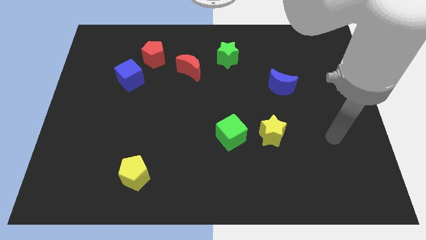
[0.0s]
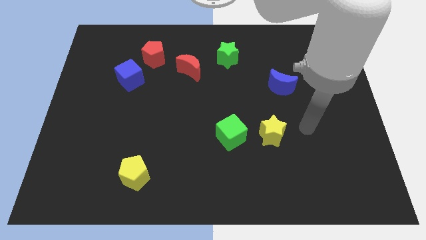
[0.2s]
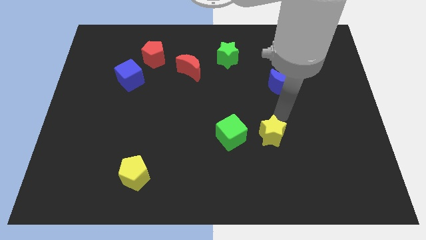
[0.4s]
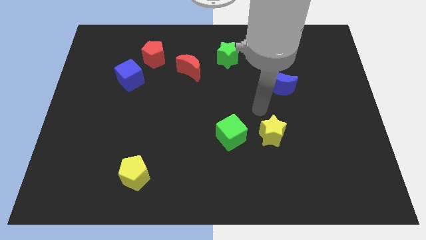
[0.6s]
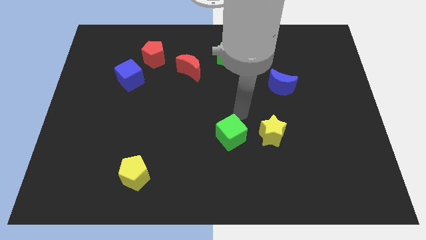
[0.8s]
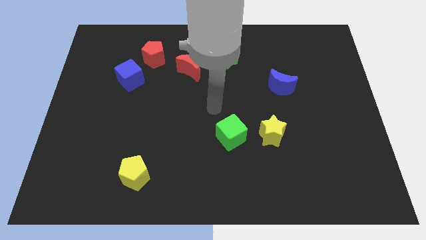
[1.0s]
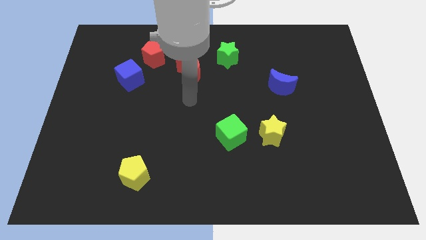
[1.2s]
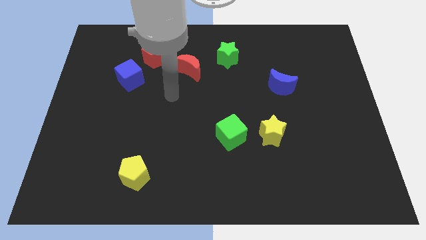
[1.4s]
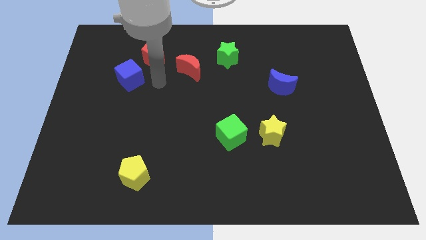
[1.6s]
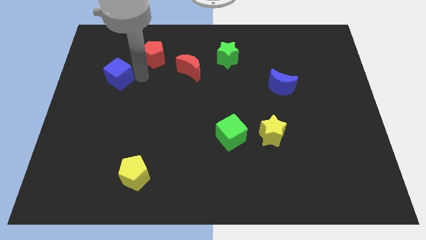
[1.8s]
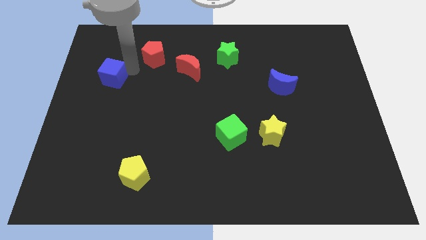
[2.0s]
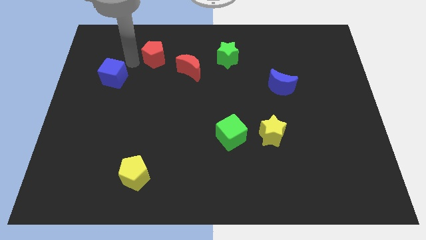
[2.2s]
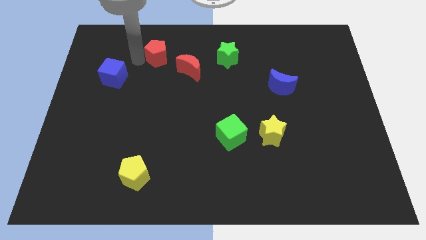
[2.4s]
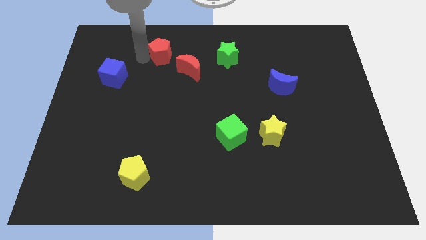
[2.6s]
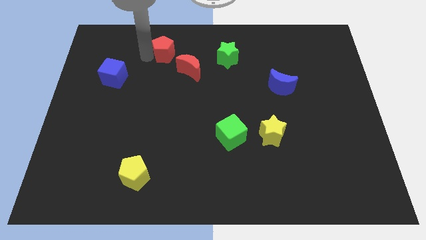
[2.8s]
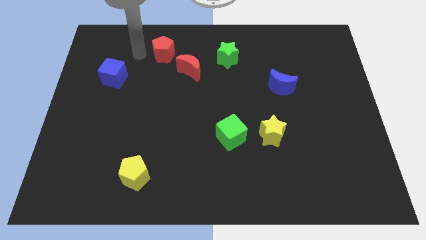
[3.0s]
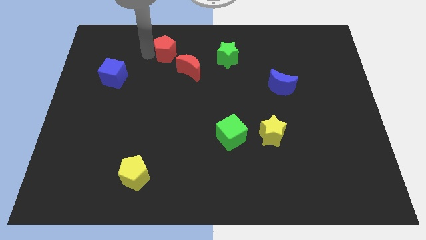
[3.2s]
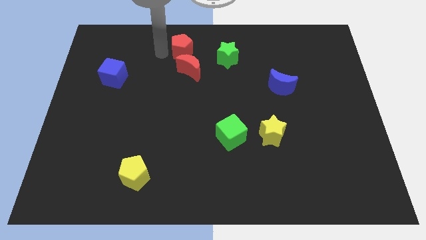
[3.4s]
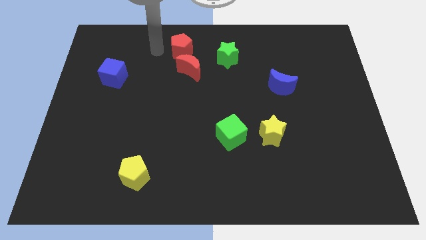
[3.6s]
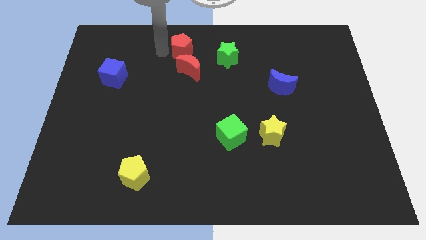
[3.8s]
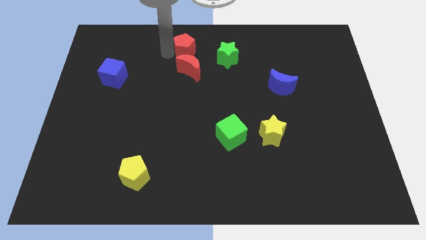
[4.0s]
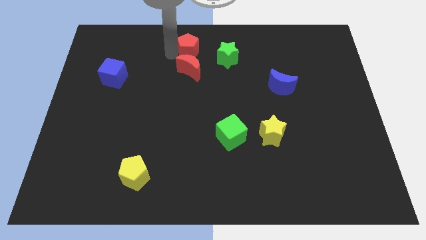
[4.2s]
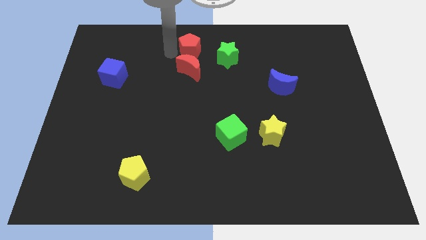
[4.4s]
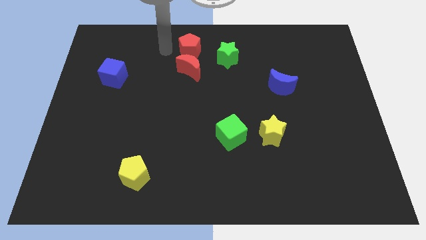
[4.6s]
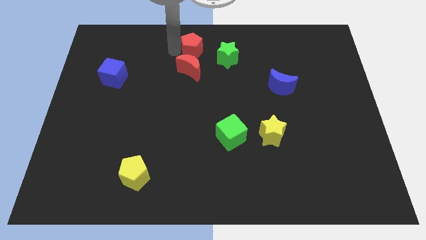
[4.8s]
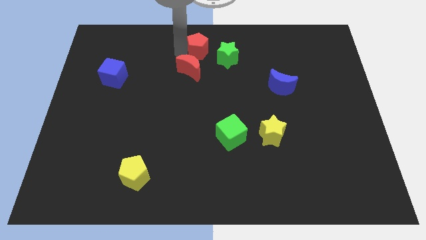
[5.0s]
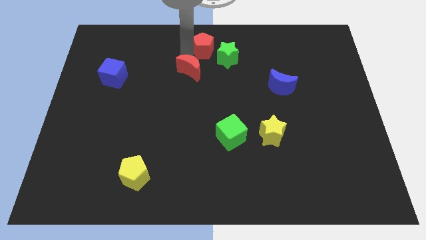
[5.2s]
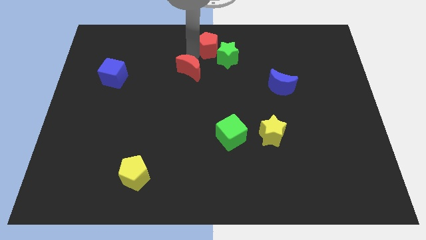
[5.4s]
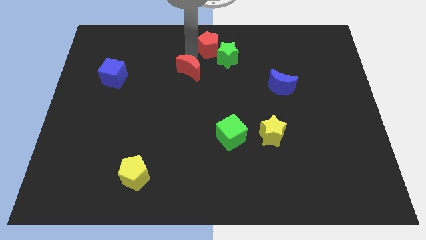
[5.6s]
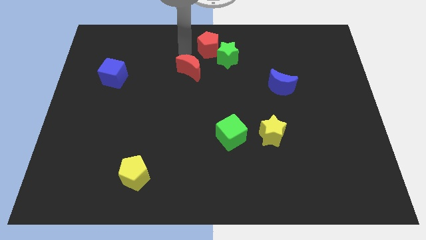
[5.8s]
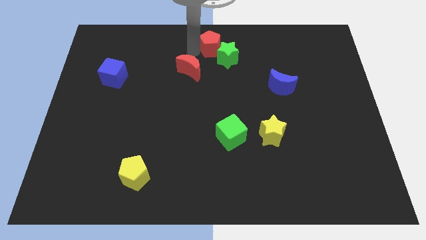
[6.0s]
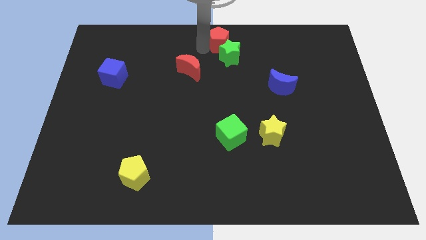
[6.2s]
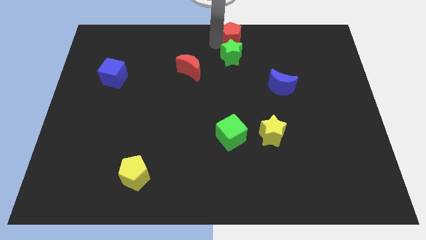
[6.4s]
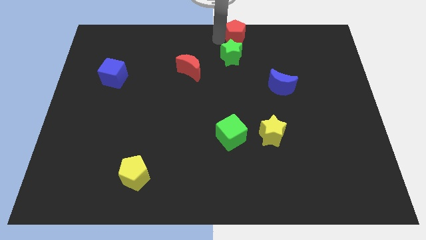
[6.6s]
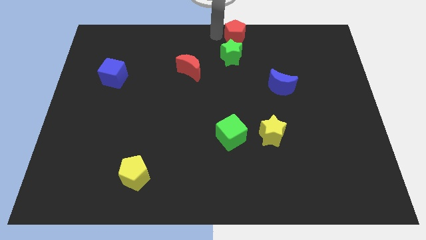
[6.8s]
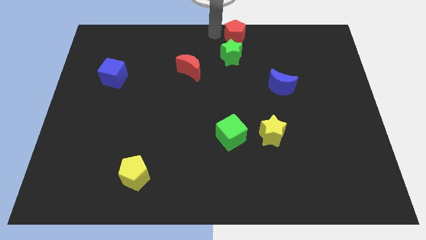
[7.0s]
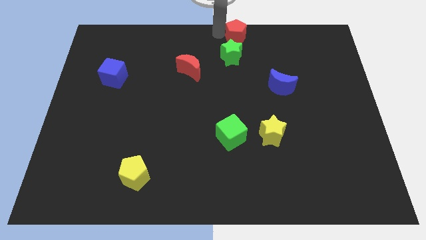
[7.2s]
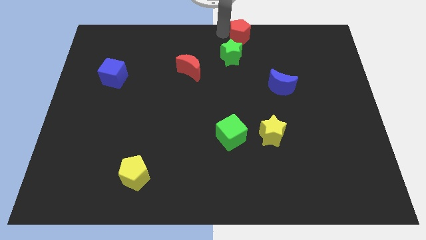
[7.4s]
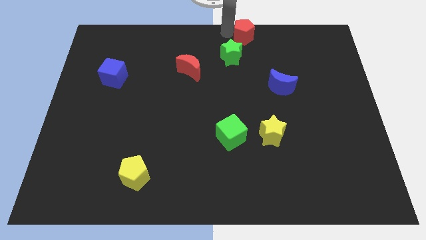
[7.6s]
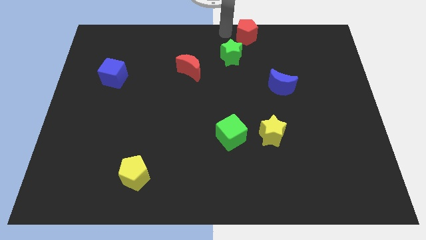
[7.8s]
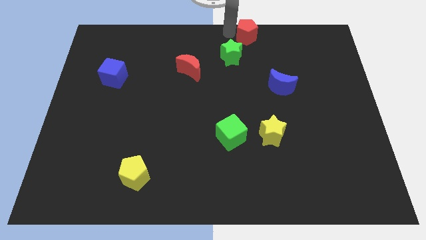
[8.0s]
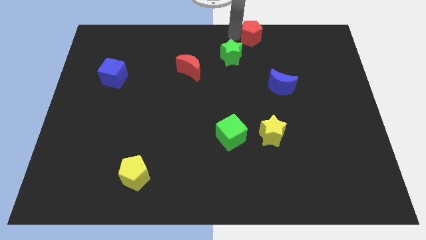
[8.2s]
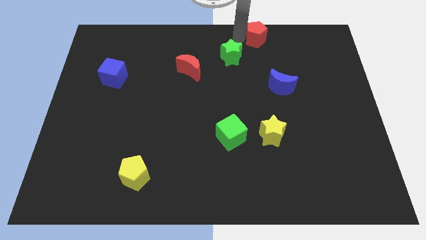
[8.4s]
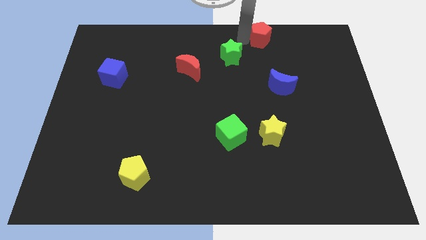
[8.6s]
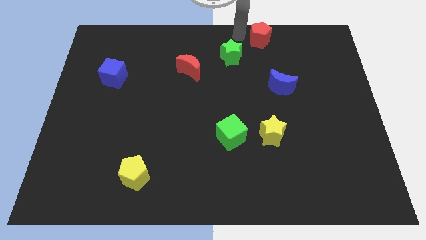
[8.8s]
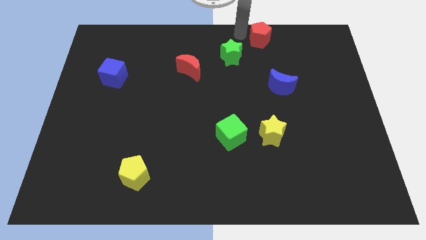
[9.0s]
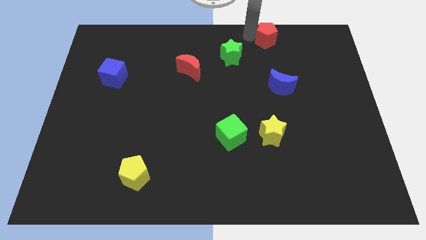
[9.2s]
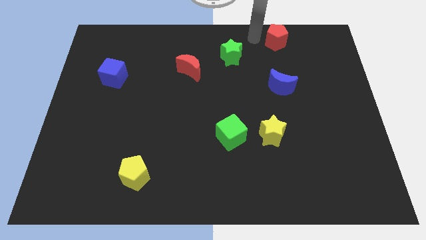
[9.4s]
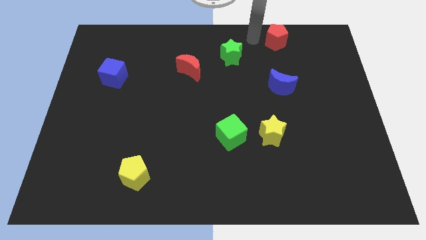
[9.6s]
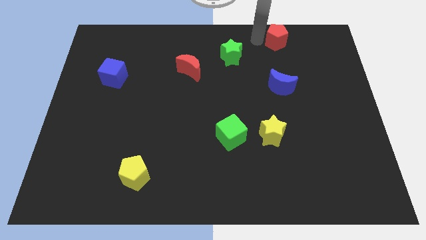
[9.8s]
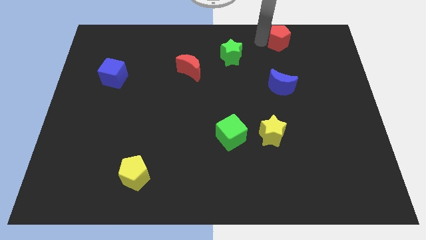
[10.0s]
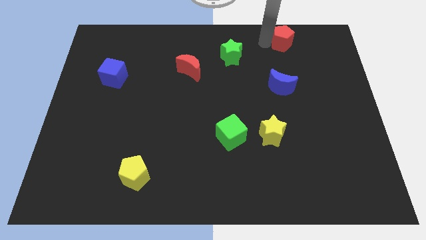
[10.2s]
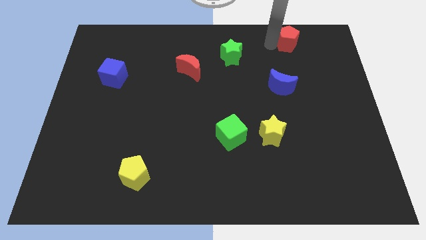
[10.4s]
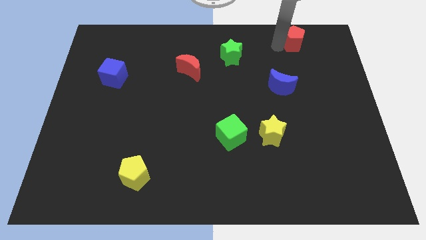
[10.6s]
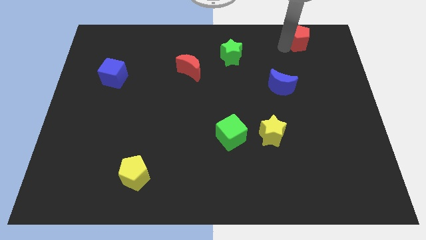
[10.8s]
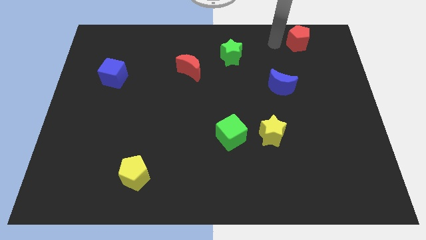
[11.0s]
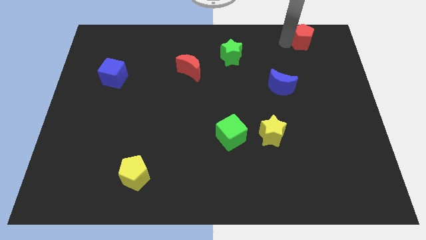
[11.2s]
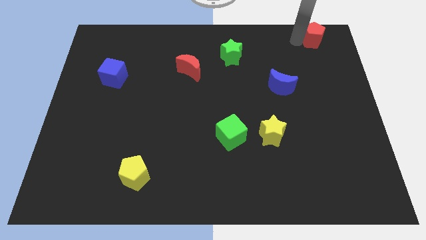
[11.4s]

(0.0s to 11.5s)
push the red pentagon to the top right corner

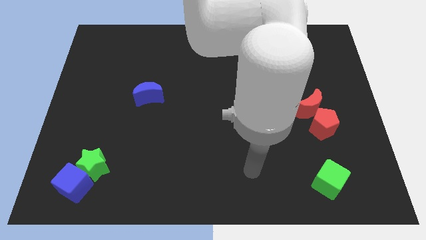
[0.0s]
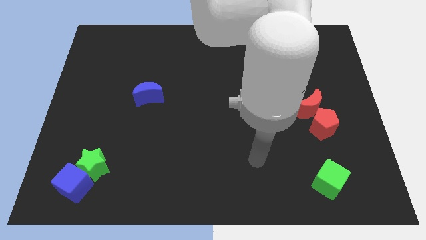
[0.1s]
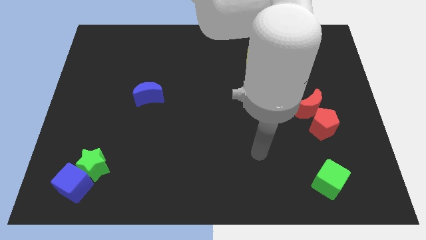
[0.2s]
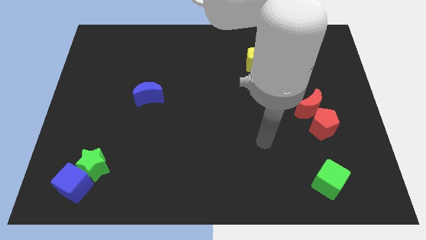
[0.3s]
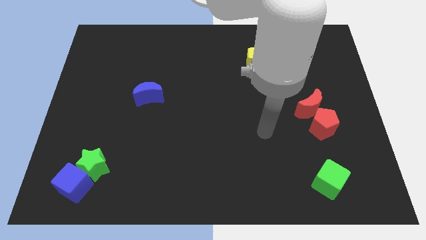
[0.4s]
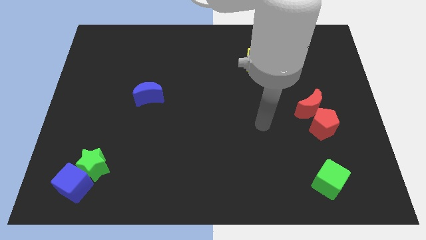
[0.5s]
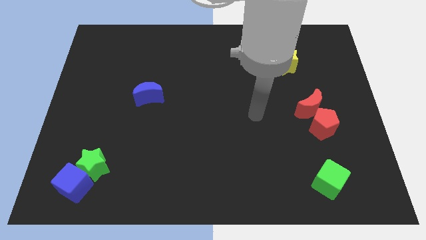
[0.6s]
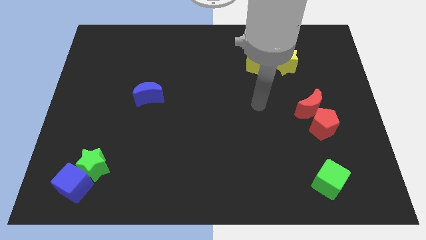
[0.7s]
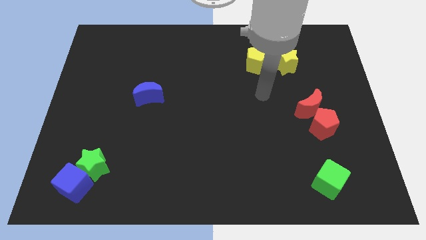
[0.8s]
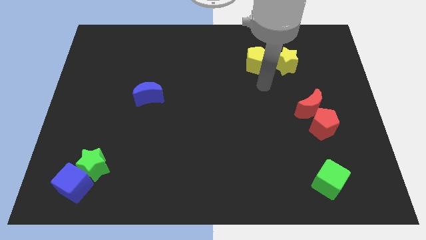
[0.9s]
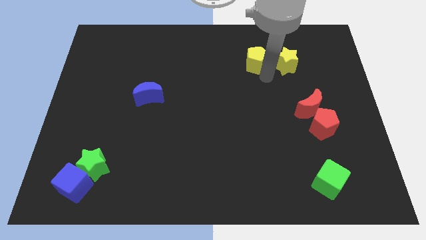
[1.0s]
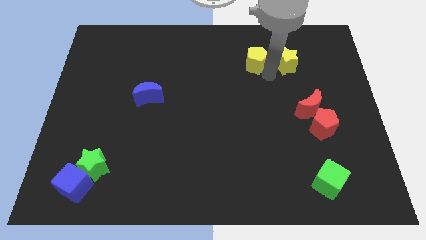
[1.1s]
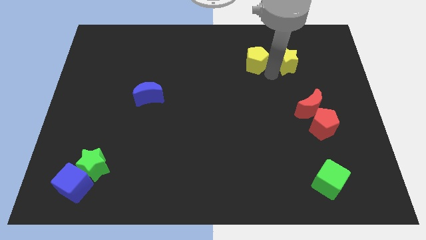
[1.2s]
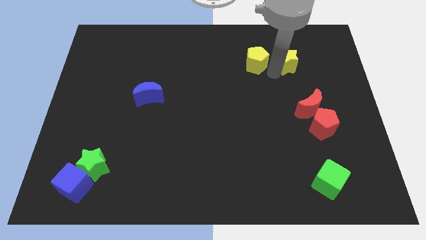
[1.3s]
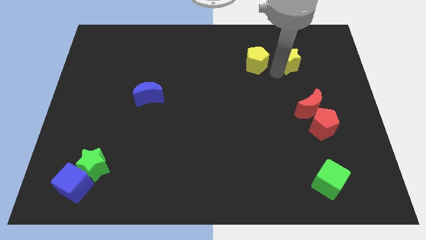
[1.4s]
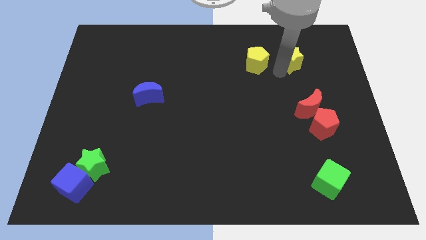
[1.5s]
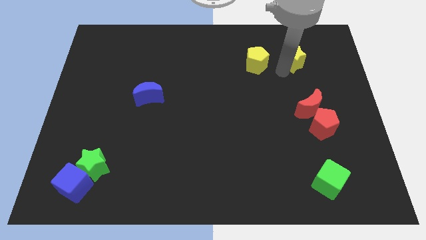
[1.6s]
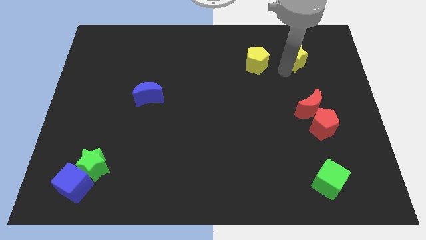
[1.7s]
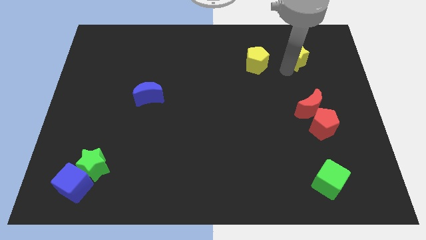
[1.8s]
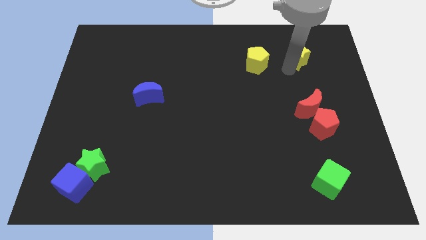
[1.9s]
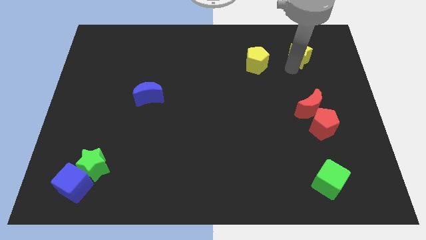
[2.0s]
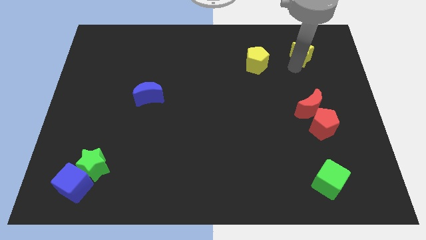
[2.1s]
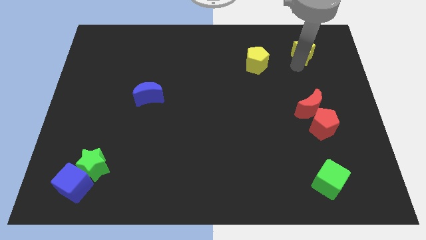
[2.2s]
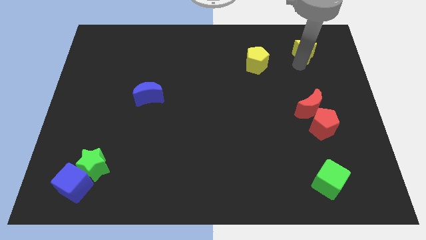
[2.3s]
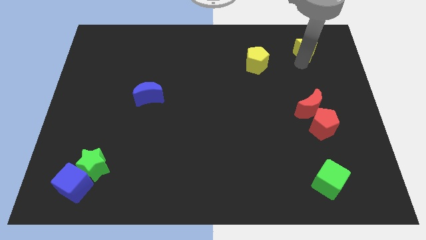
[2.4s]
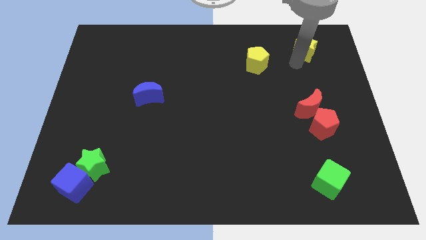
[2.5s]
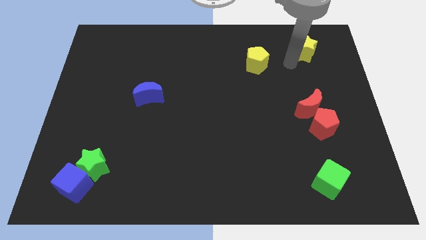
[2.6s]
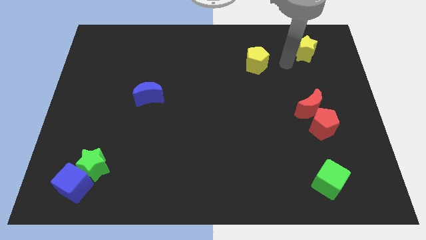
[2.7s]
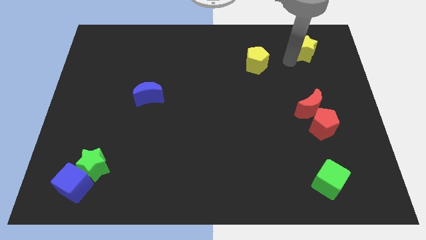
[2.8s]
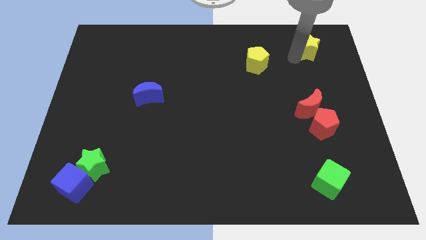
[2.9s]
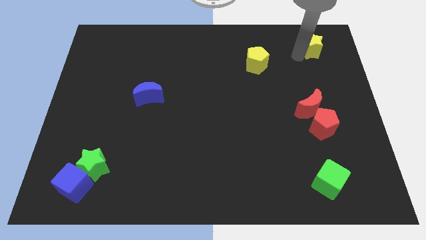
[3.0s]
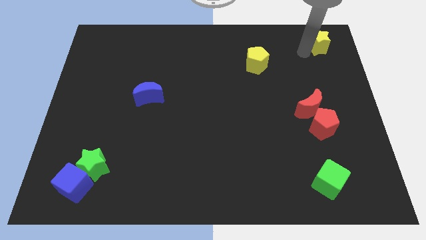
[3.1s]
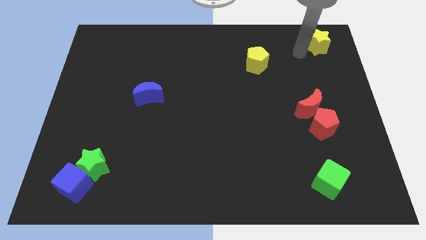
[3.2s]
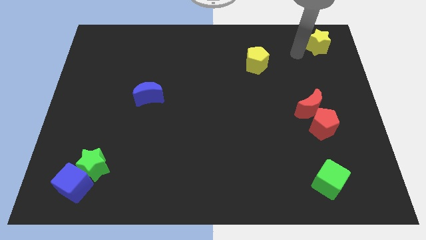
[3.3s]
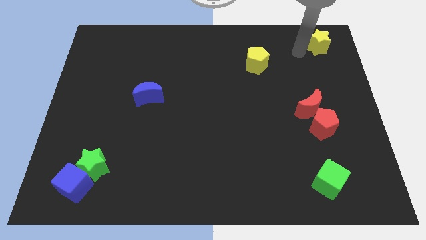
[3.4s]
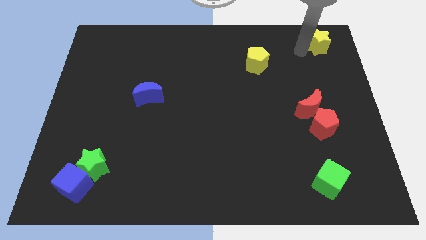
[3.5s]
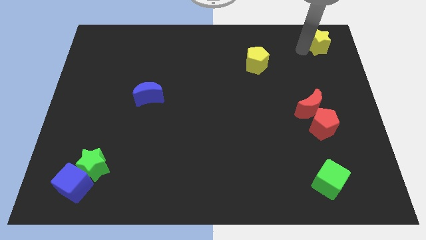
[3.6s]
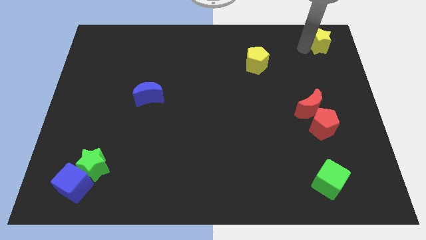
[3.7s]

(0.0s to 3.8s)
push the yellow star to the upper right corner
